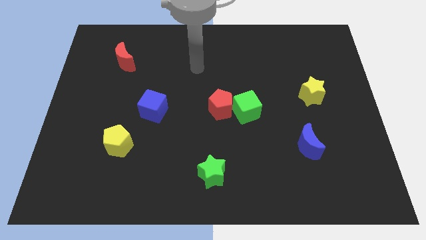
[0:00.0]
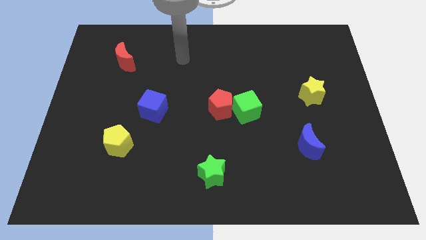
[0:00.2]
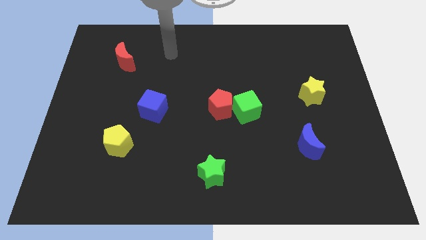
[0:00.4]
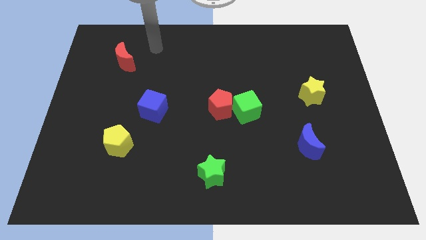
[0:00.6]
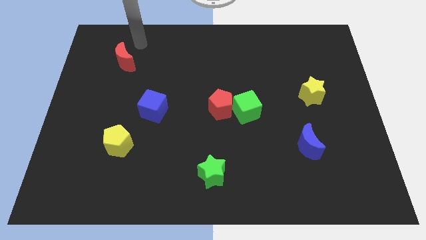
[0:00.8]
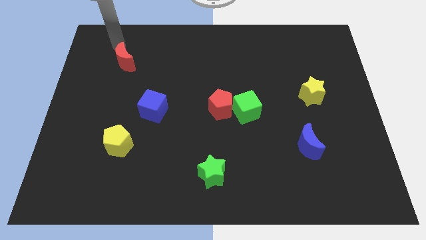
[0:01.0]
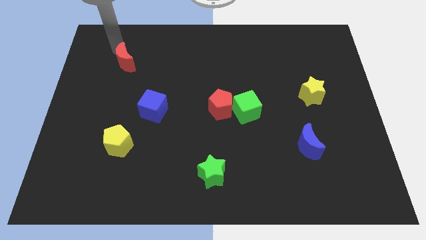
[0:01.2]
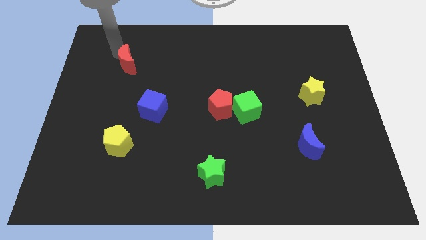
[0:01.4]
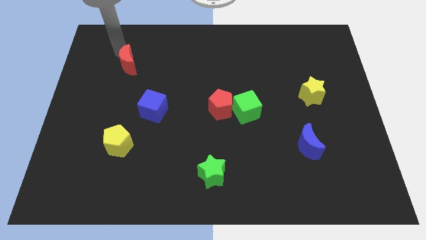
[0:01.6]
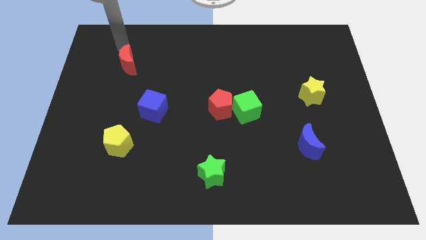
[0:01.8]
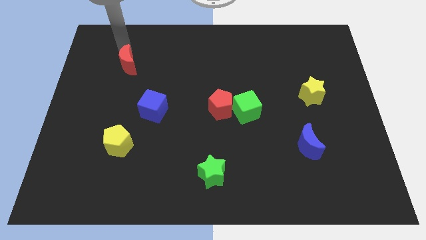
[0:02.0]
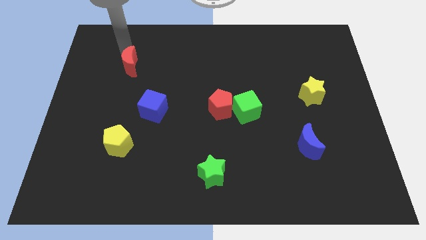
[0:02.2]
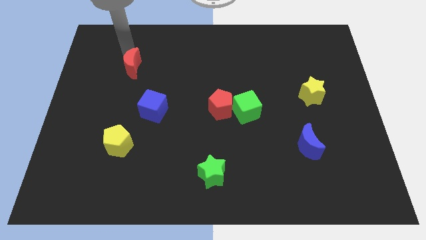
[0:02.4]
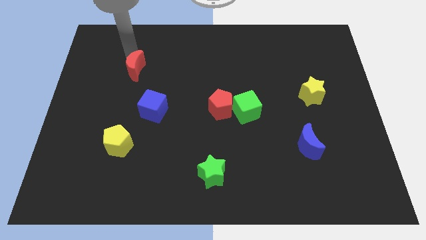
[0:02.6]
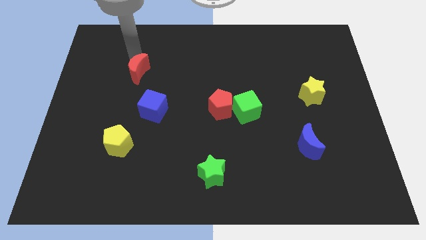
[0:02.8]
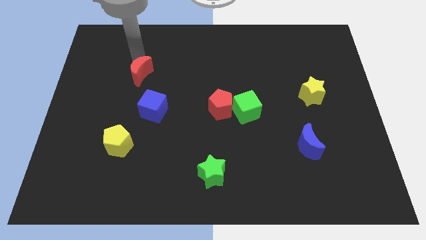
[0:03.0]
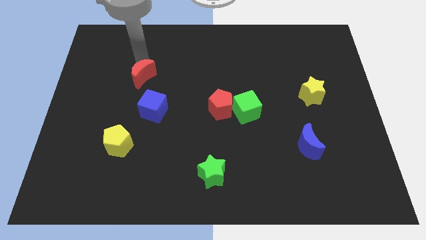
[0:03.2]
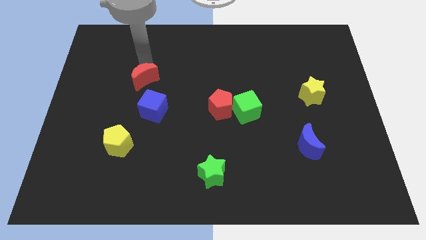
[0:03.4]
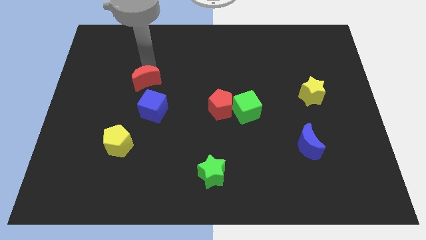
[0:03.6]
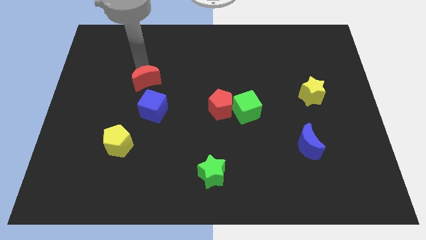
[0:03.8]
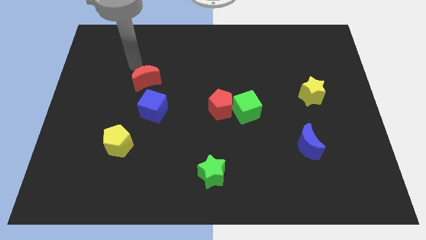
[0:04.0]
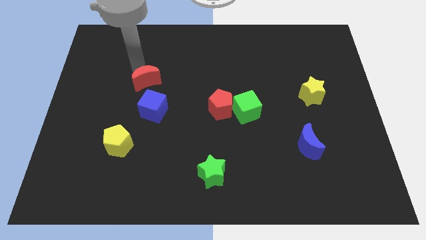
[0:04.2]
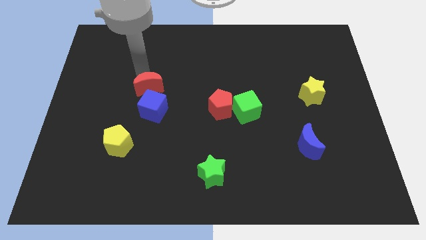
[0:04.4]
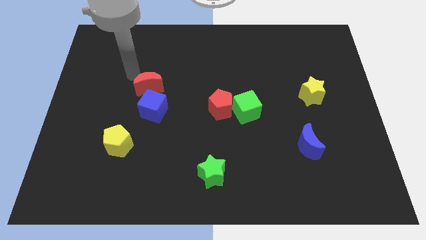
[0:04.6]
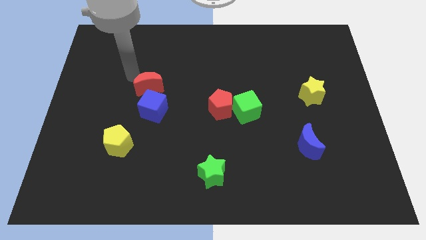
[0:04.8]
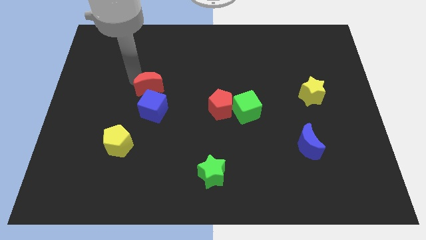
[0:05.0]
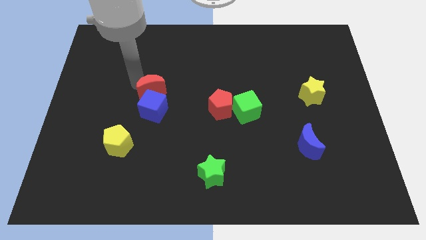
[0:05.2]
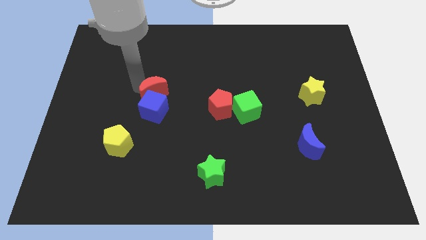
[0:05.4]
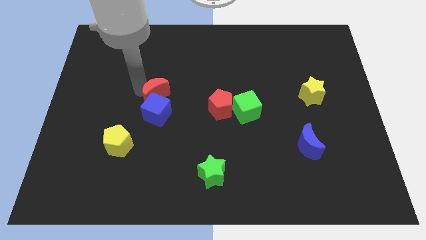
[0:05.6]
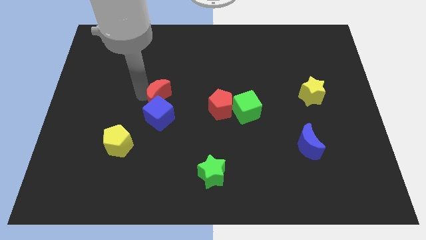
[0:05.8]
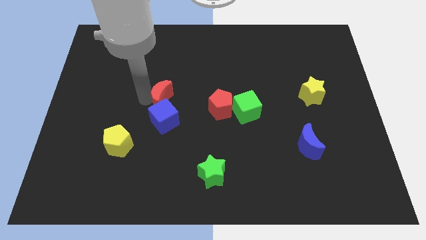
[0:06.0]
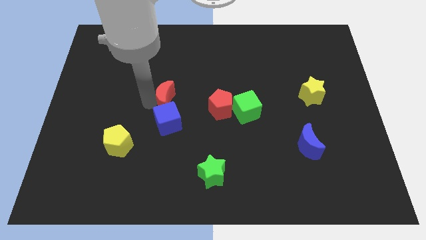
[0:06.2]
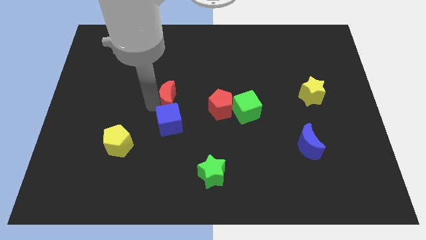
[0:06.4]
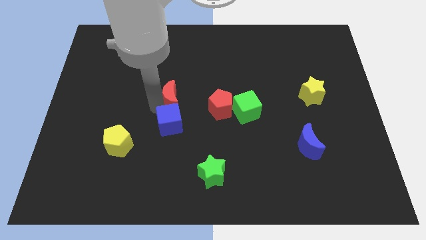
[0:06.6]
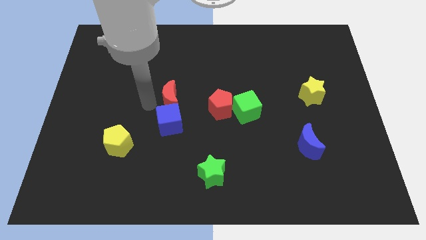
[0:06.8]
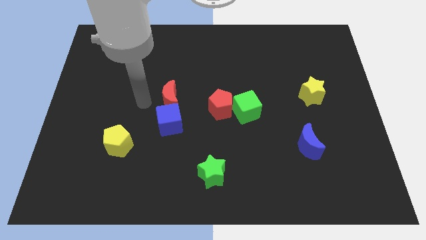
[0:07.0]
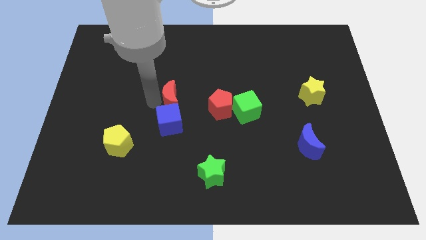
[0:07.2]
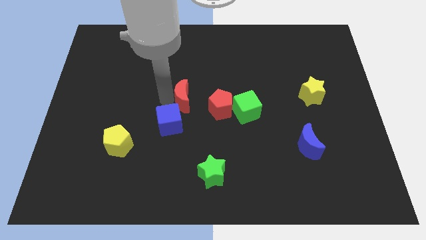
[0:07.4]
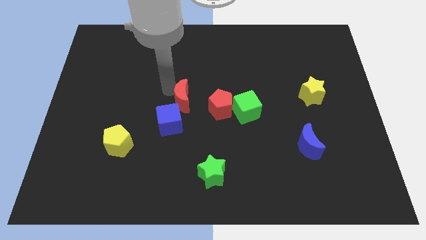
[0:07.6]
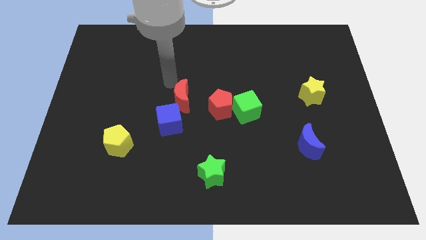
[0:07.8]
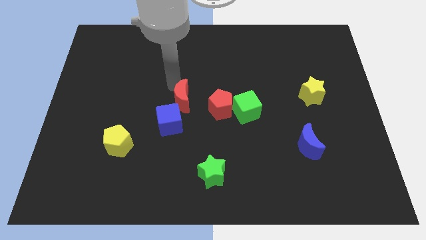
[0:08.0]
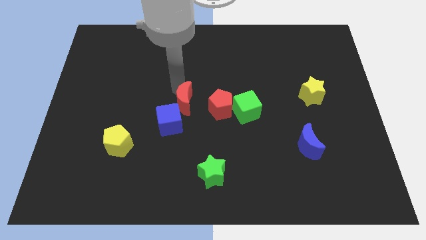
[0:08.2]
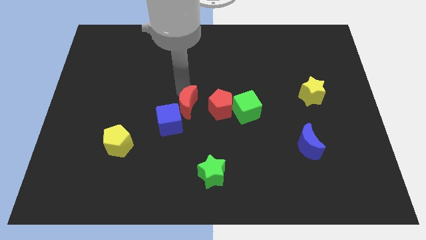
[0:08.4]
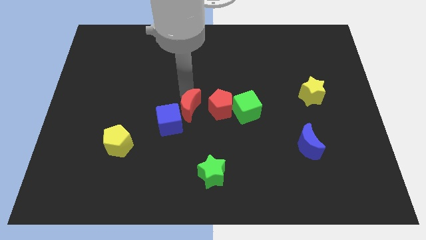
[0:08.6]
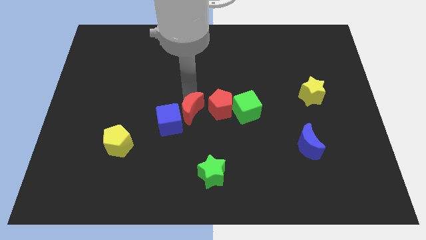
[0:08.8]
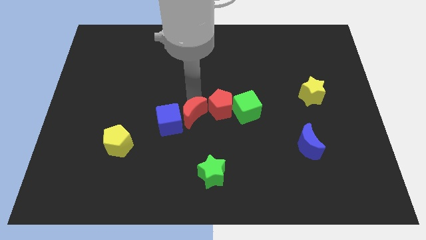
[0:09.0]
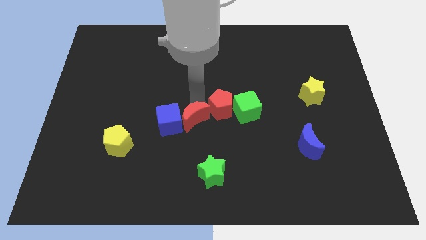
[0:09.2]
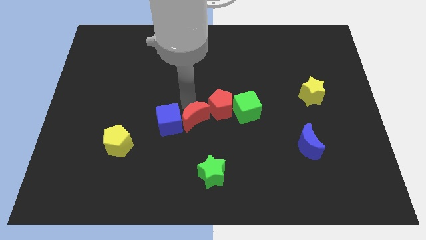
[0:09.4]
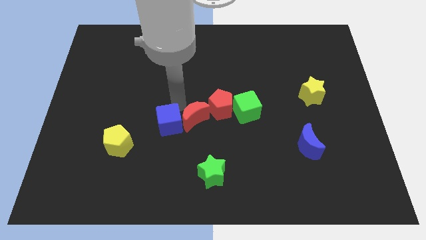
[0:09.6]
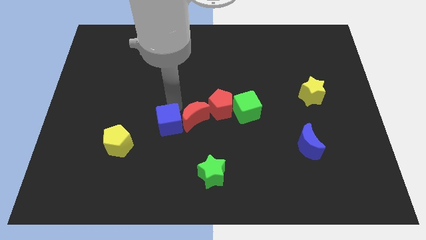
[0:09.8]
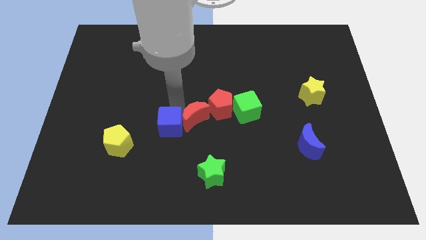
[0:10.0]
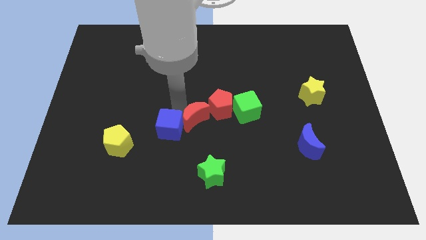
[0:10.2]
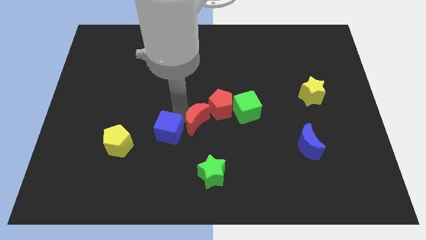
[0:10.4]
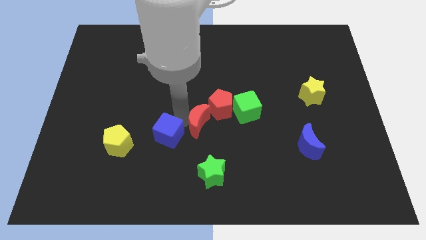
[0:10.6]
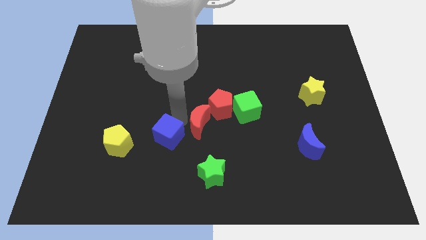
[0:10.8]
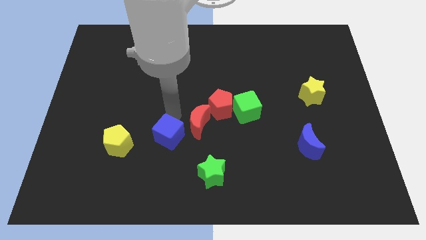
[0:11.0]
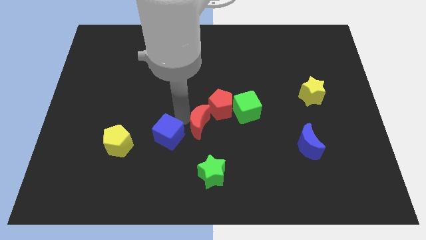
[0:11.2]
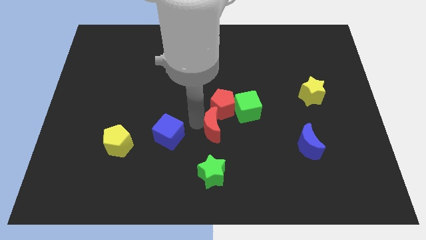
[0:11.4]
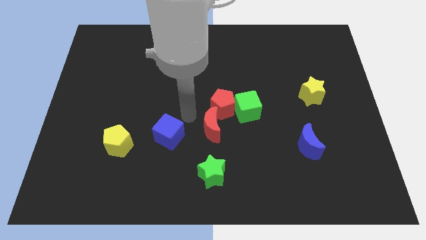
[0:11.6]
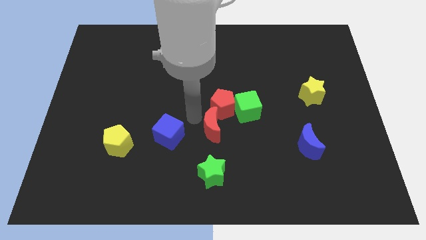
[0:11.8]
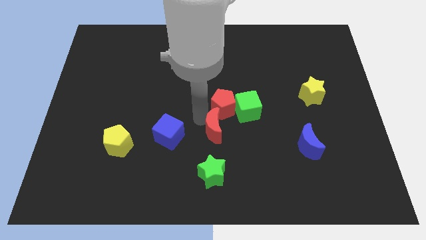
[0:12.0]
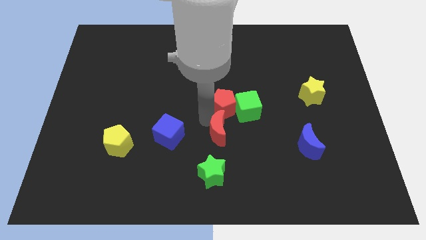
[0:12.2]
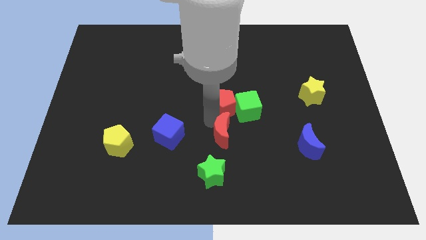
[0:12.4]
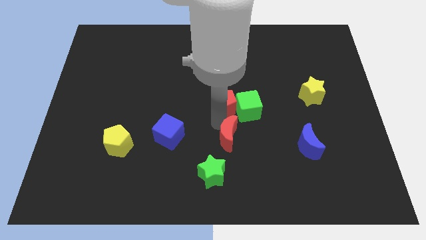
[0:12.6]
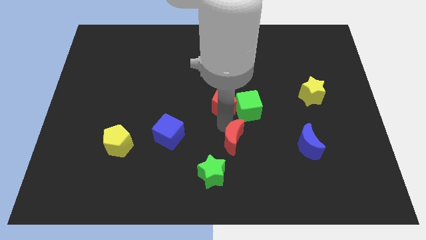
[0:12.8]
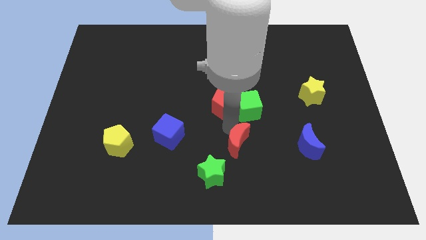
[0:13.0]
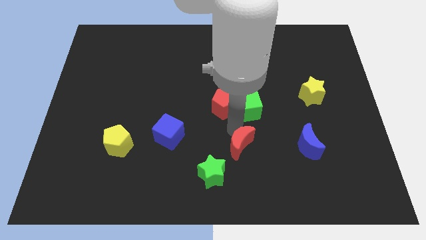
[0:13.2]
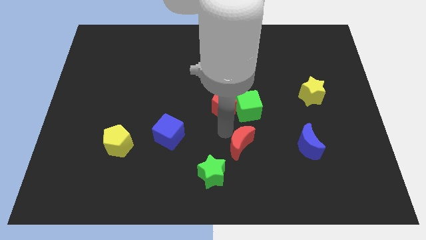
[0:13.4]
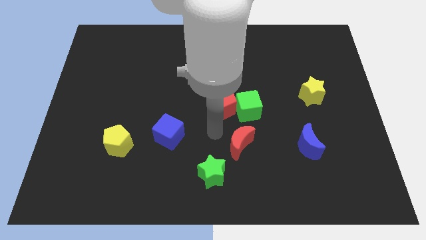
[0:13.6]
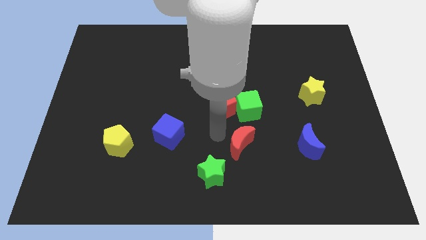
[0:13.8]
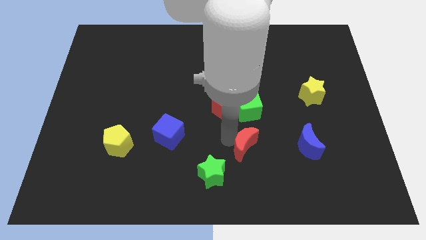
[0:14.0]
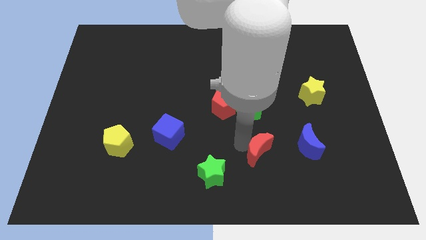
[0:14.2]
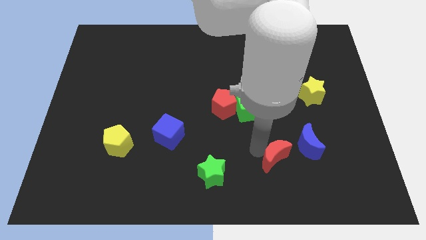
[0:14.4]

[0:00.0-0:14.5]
slide the red moon diagonally down and to the left of the blue moon

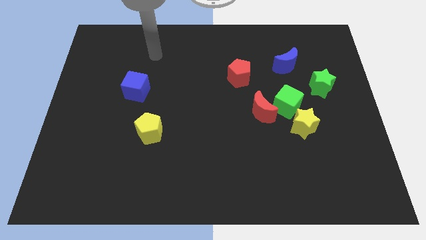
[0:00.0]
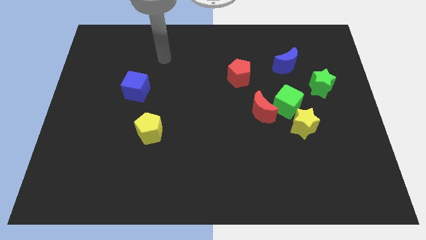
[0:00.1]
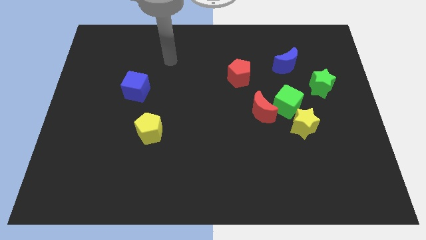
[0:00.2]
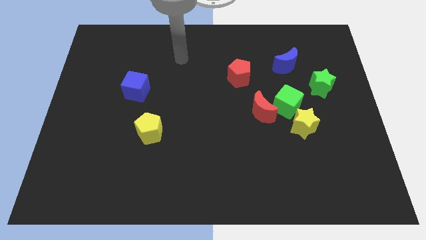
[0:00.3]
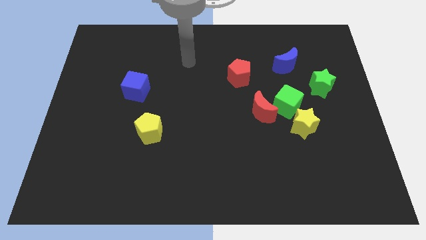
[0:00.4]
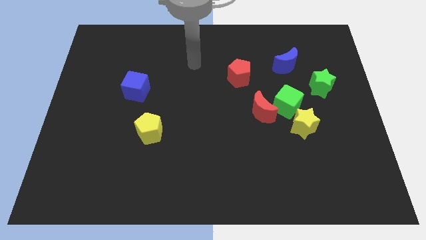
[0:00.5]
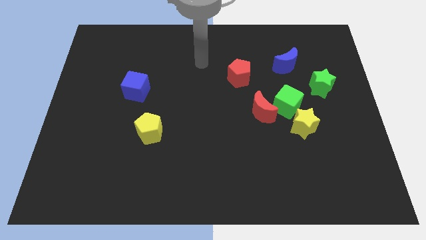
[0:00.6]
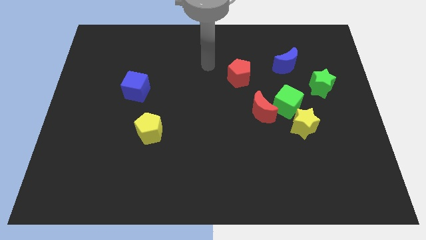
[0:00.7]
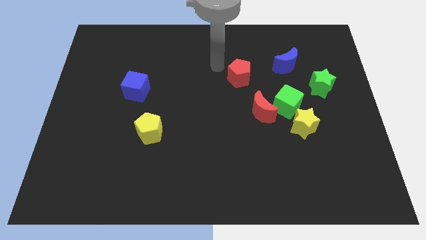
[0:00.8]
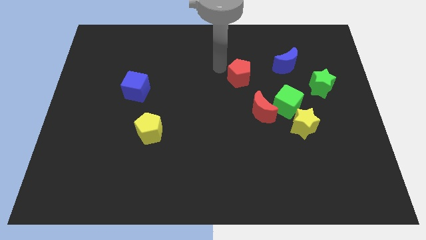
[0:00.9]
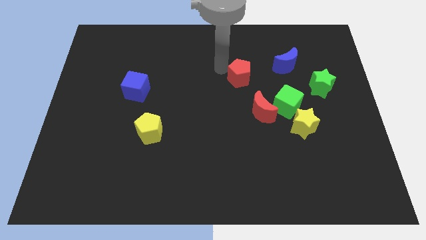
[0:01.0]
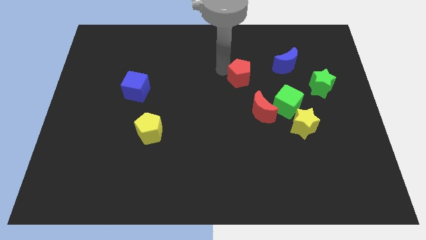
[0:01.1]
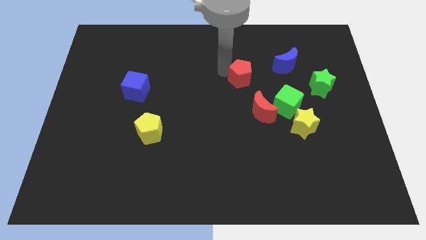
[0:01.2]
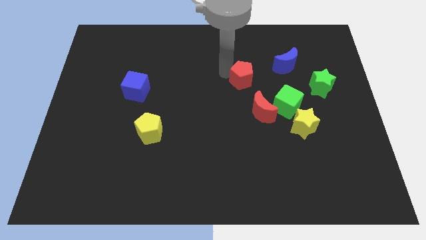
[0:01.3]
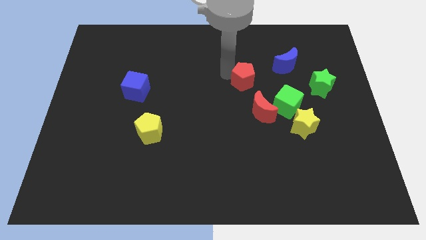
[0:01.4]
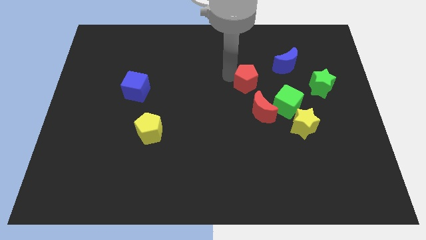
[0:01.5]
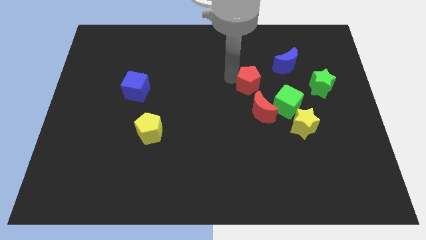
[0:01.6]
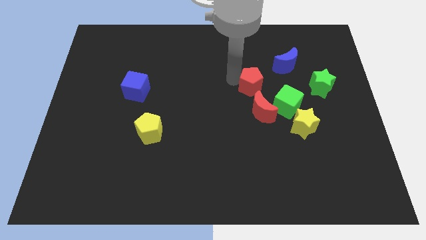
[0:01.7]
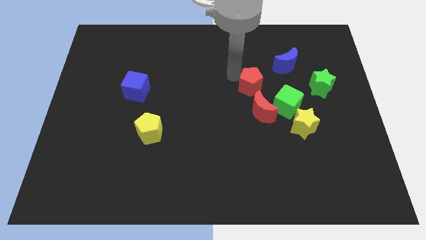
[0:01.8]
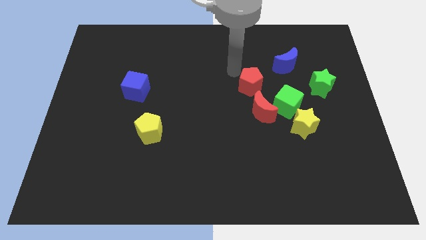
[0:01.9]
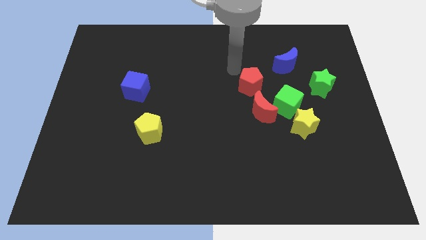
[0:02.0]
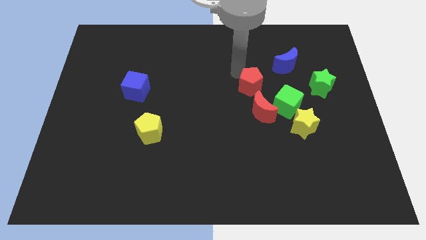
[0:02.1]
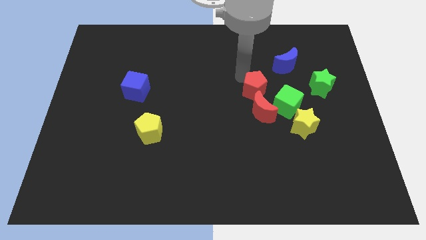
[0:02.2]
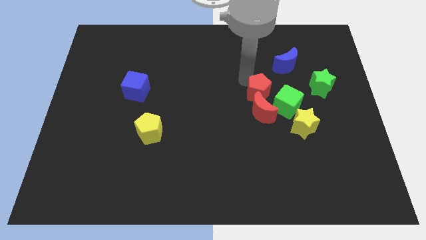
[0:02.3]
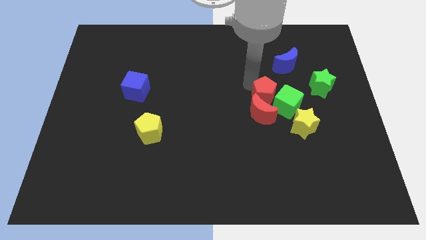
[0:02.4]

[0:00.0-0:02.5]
push the red pentagon diagonally up and to the left of the yellow star
